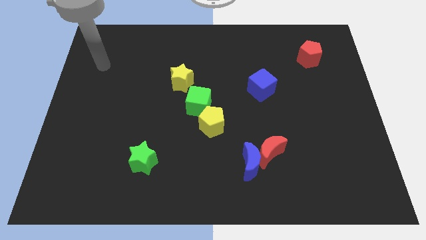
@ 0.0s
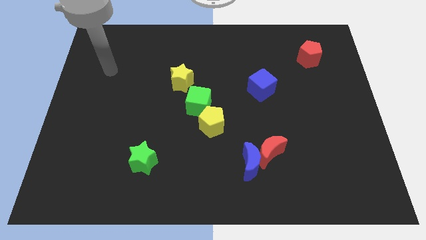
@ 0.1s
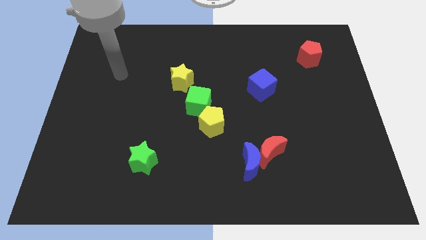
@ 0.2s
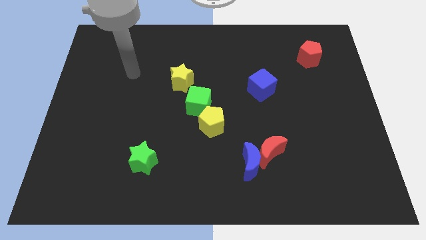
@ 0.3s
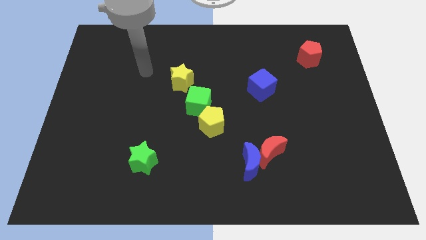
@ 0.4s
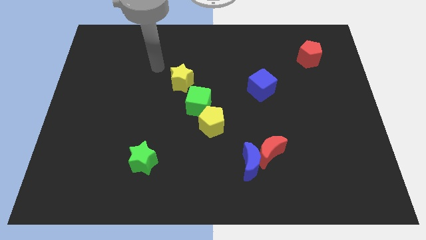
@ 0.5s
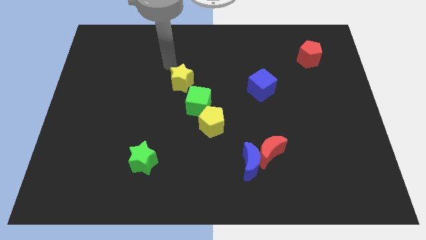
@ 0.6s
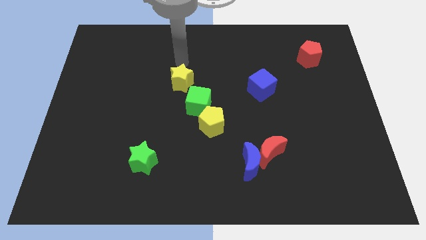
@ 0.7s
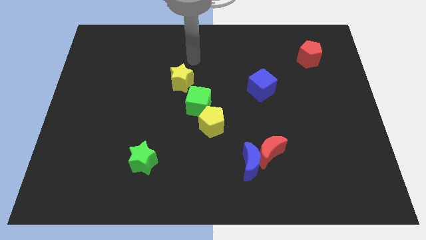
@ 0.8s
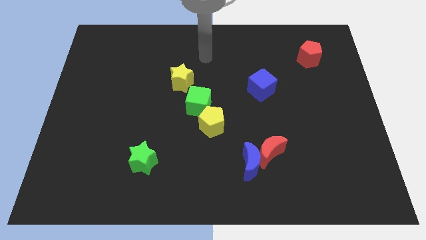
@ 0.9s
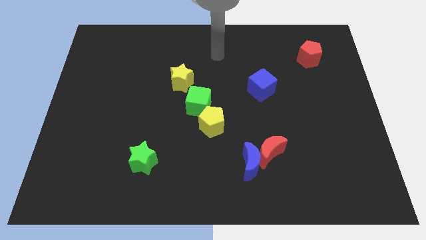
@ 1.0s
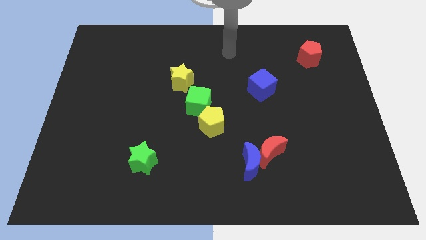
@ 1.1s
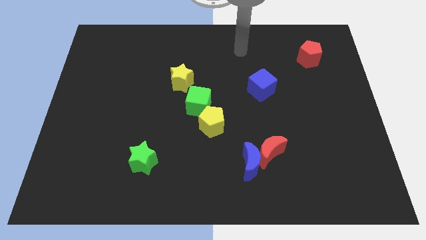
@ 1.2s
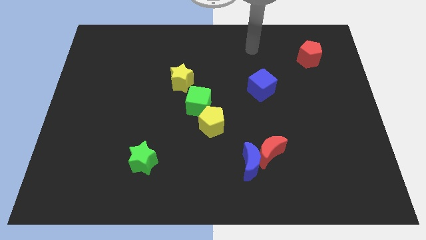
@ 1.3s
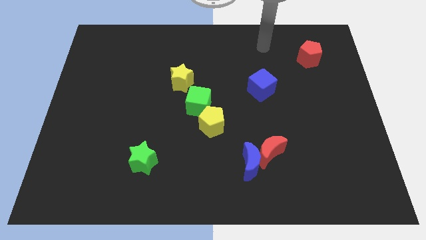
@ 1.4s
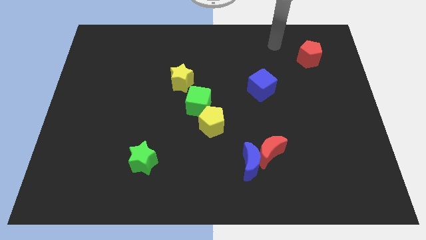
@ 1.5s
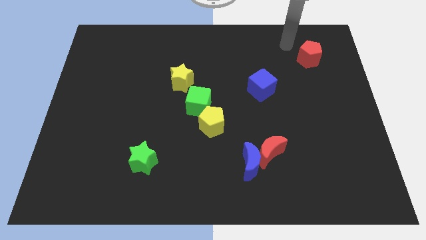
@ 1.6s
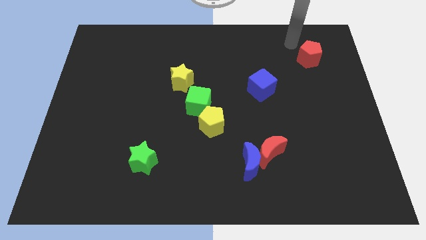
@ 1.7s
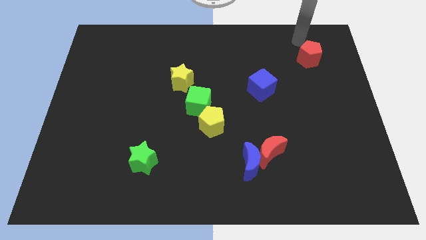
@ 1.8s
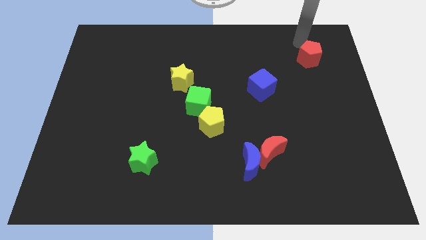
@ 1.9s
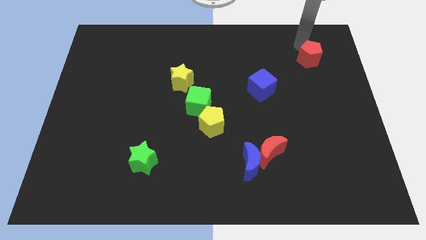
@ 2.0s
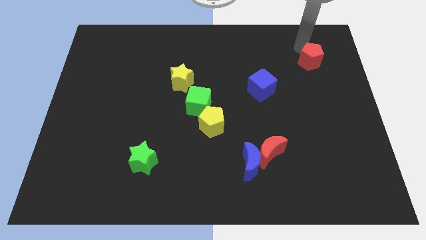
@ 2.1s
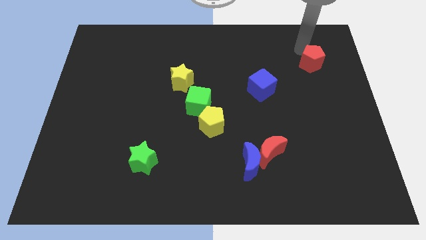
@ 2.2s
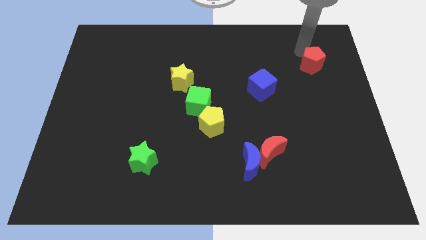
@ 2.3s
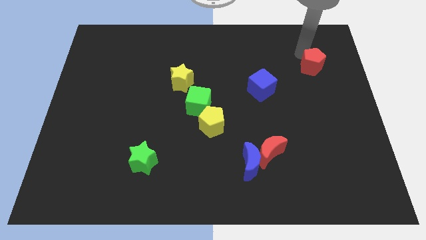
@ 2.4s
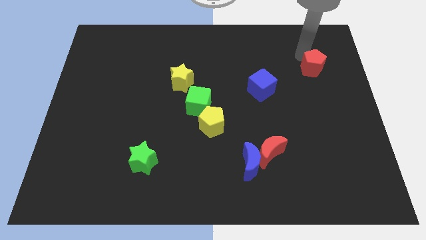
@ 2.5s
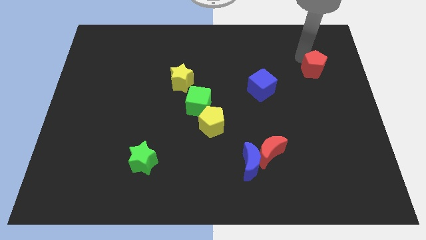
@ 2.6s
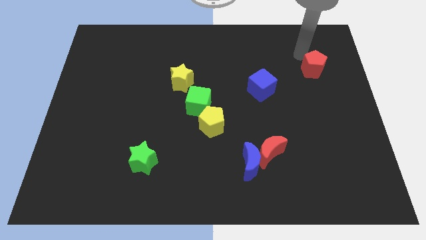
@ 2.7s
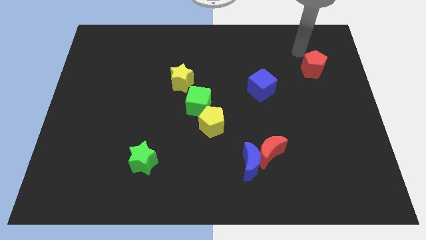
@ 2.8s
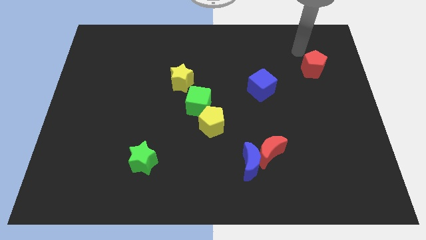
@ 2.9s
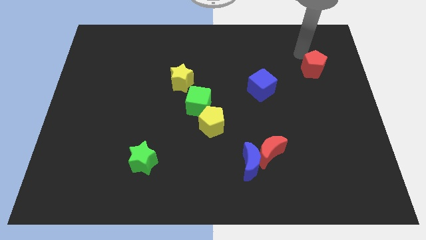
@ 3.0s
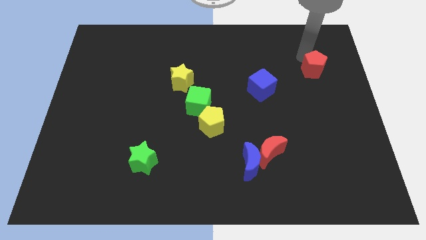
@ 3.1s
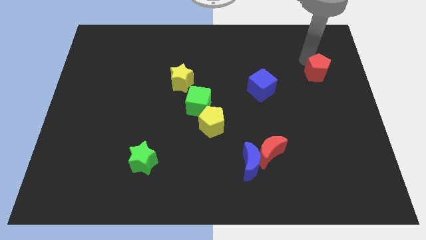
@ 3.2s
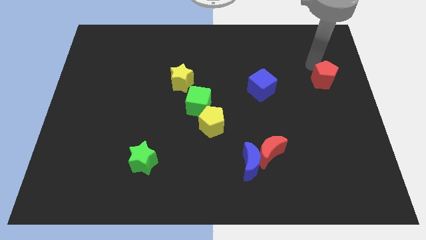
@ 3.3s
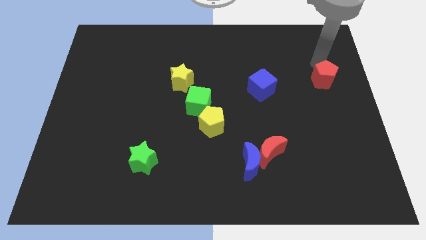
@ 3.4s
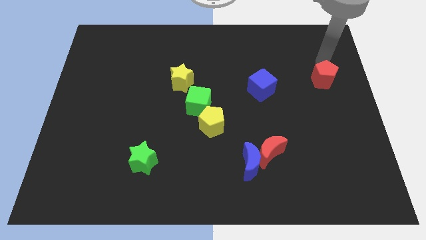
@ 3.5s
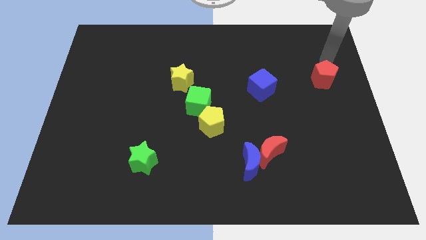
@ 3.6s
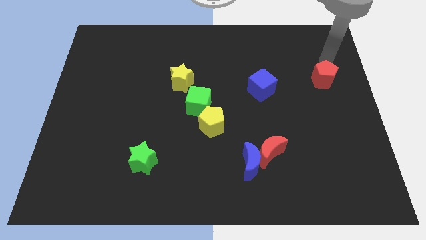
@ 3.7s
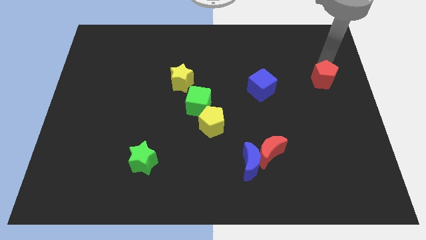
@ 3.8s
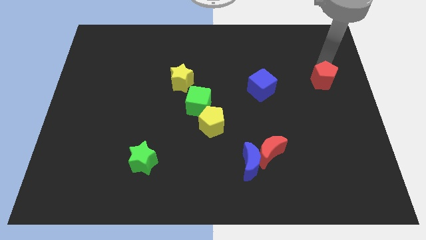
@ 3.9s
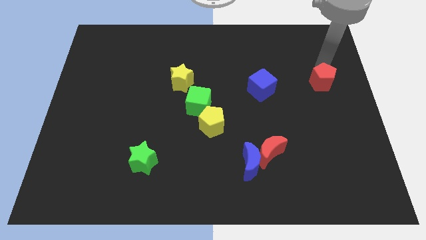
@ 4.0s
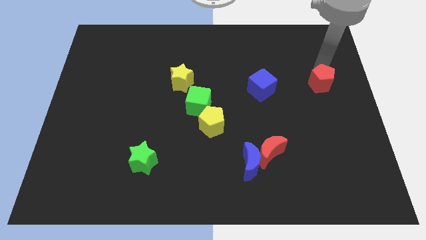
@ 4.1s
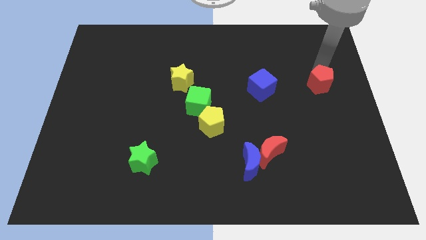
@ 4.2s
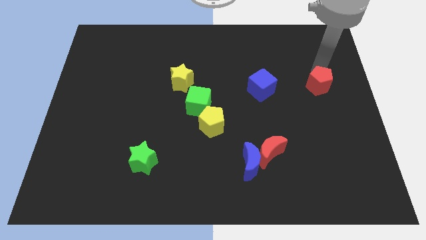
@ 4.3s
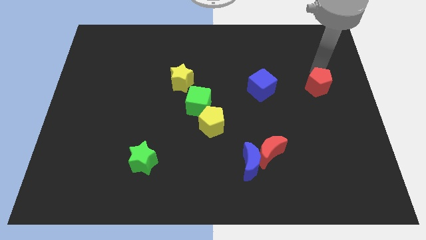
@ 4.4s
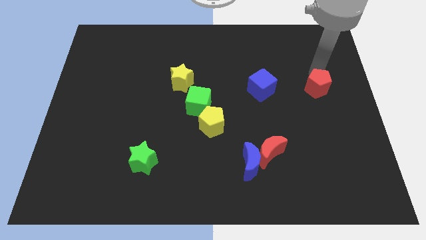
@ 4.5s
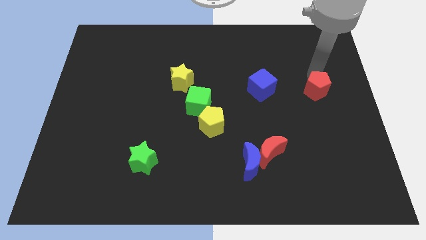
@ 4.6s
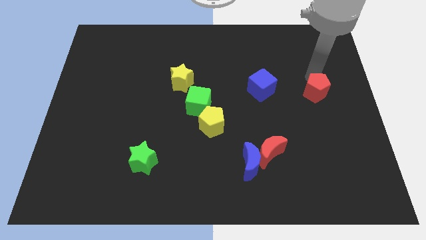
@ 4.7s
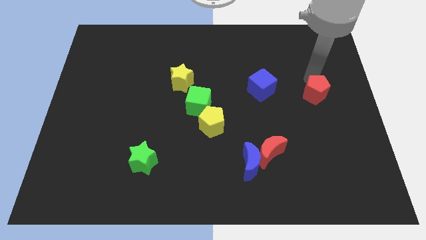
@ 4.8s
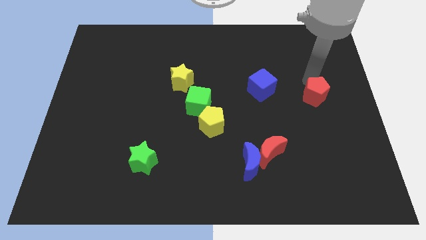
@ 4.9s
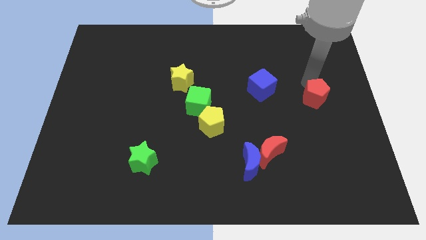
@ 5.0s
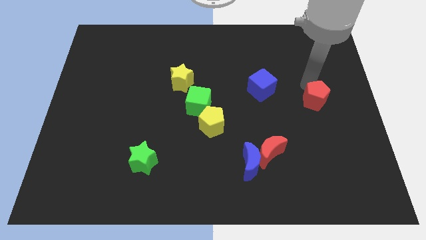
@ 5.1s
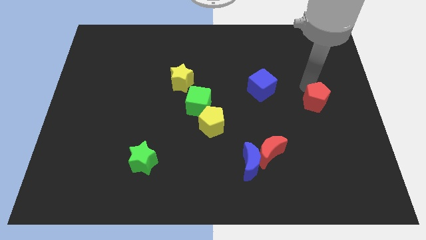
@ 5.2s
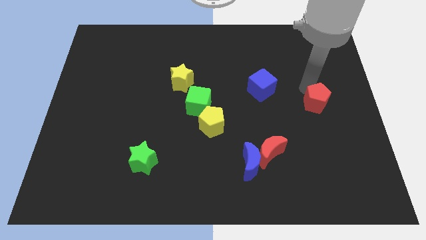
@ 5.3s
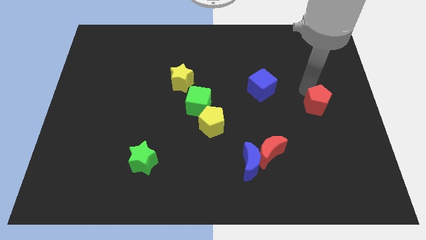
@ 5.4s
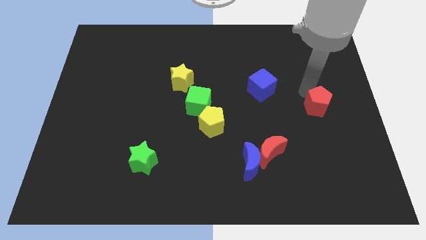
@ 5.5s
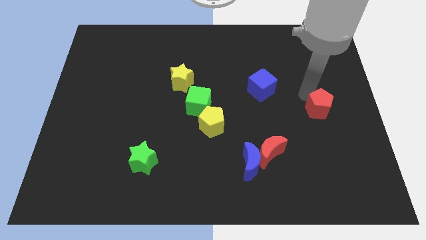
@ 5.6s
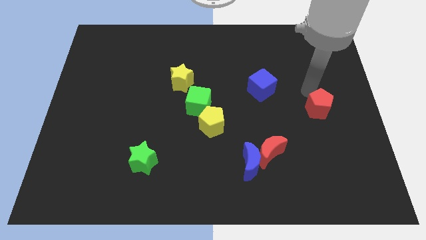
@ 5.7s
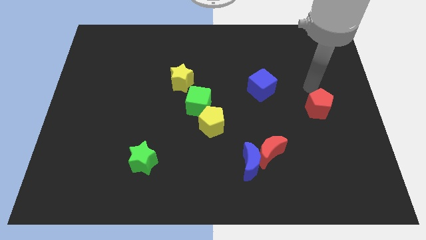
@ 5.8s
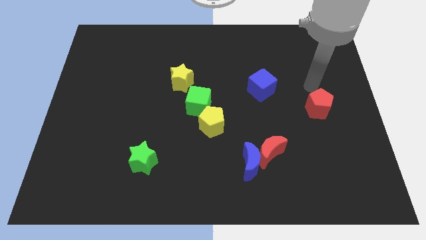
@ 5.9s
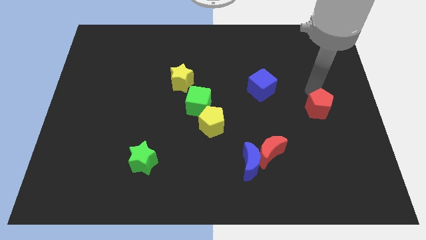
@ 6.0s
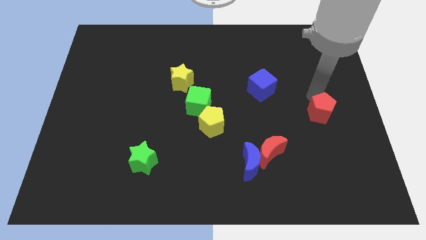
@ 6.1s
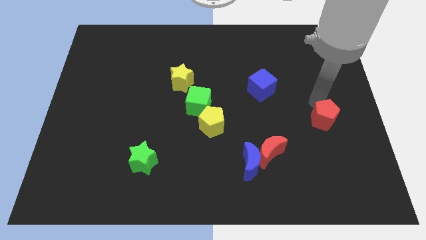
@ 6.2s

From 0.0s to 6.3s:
push the red pentagon downwards

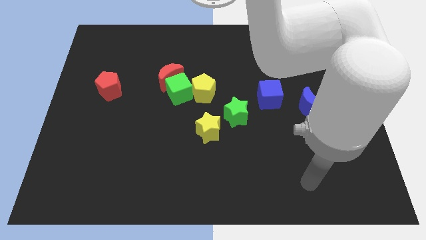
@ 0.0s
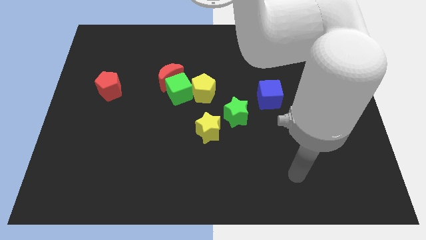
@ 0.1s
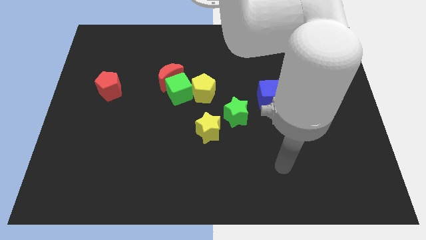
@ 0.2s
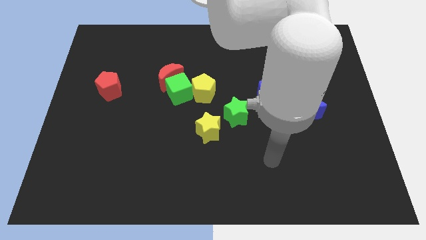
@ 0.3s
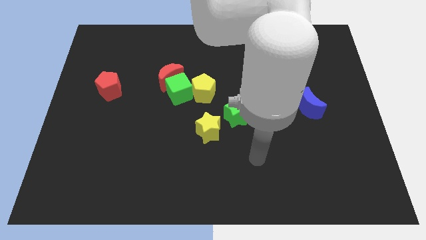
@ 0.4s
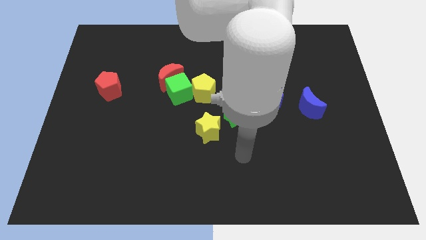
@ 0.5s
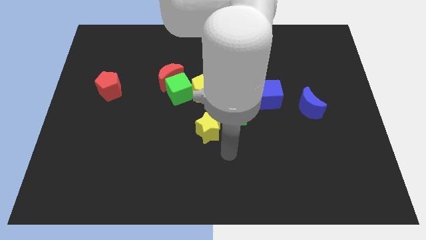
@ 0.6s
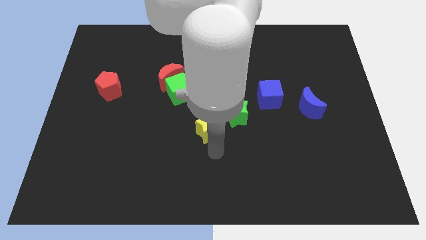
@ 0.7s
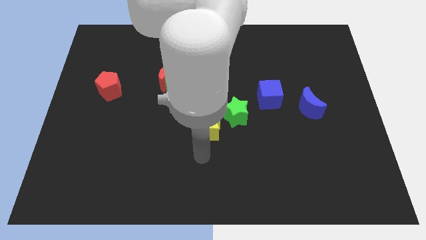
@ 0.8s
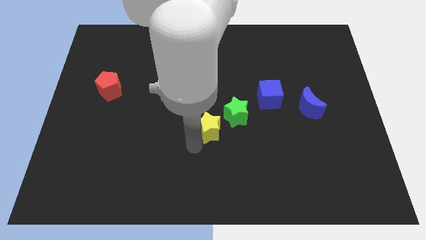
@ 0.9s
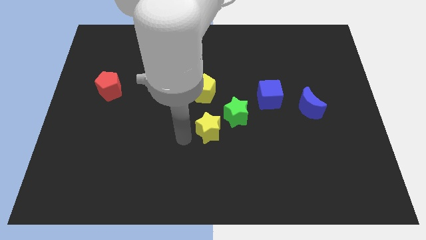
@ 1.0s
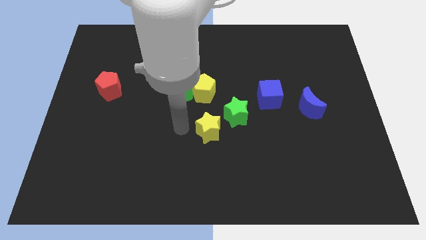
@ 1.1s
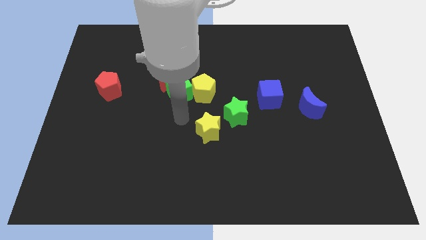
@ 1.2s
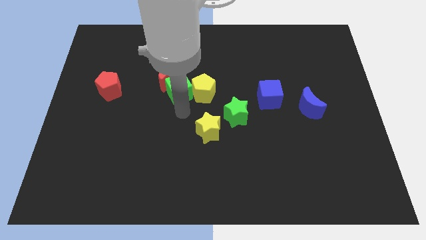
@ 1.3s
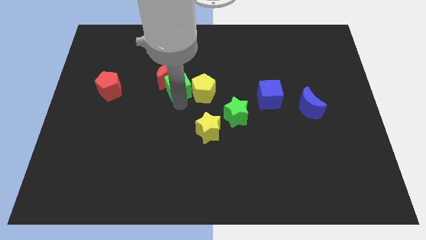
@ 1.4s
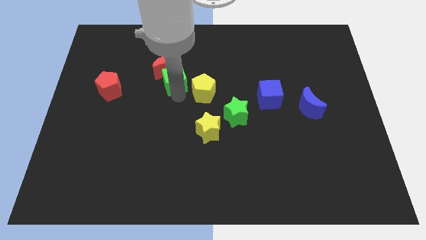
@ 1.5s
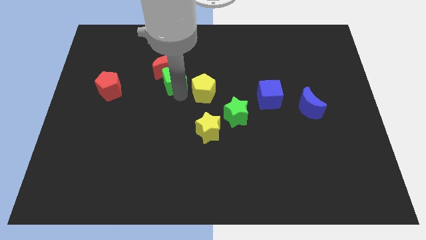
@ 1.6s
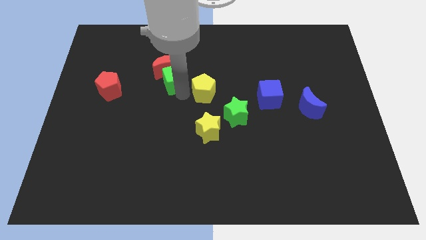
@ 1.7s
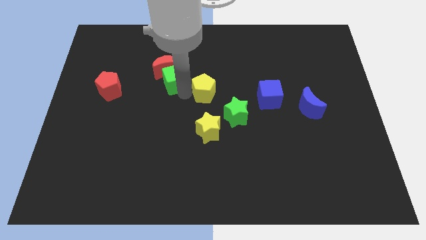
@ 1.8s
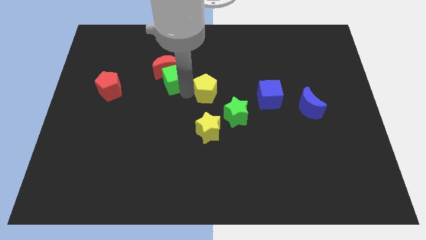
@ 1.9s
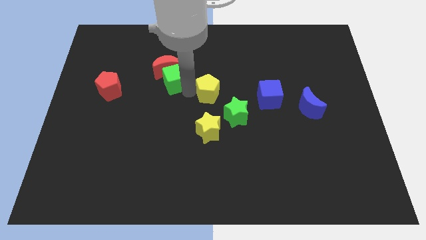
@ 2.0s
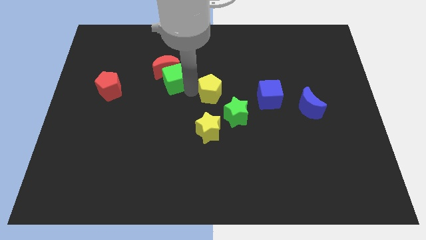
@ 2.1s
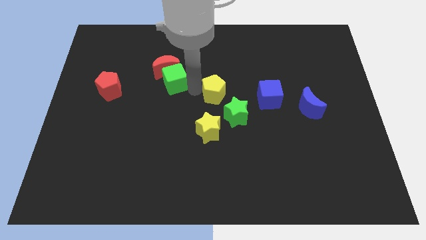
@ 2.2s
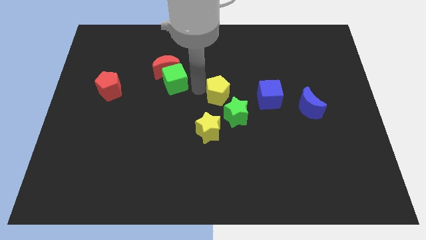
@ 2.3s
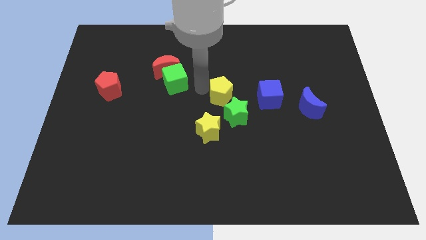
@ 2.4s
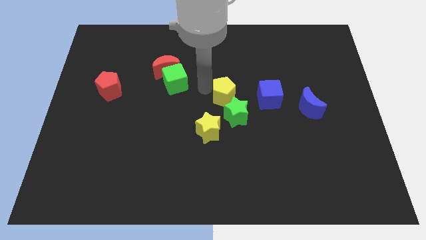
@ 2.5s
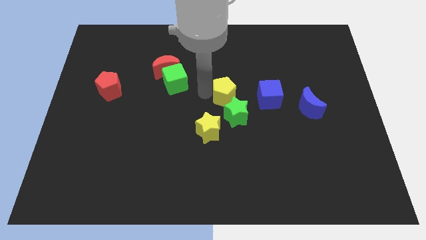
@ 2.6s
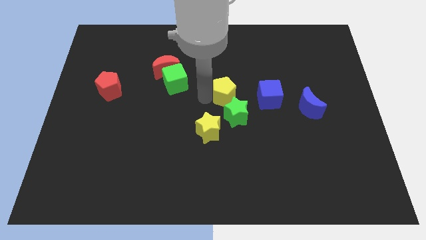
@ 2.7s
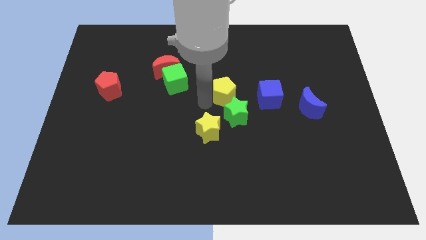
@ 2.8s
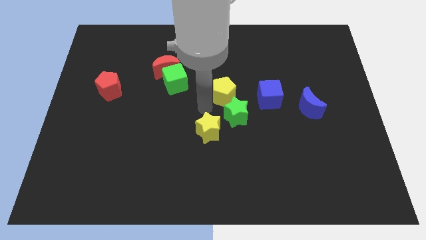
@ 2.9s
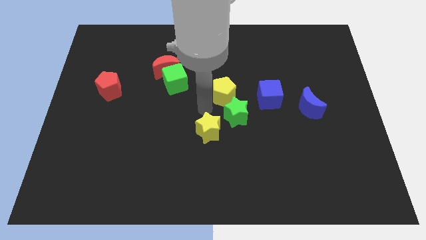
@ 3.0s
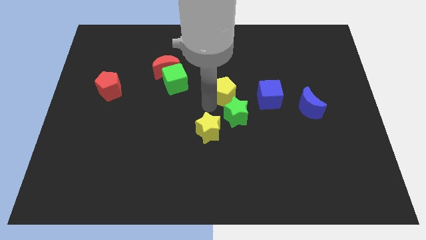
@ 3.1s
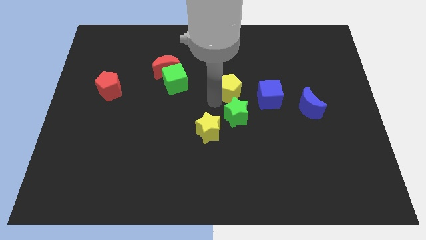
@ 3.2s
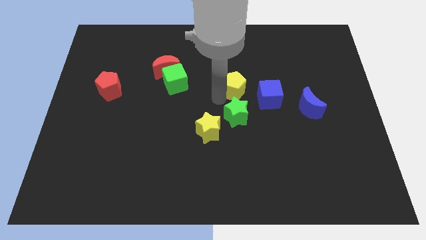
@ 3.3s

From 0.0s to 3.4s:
move the yellow pentagon right somewhat
